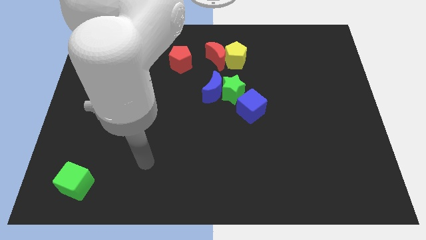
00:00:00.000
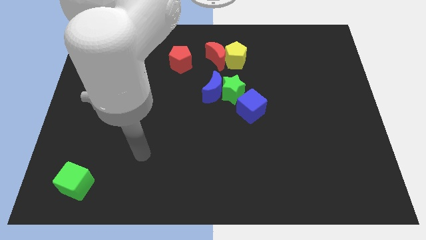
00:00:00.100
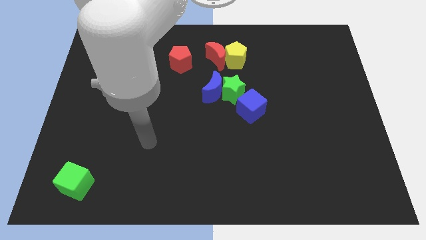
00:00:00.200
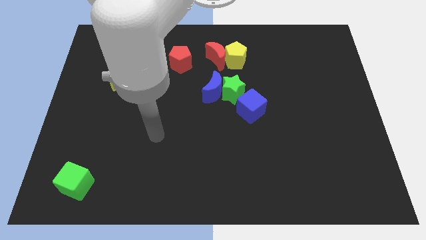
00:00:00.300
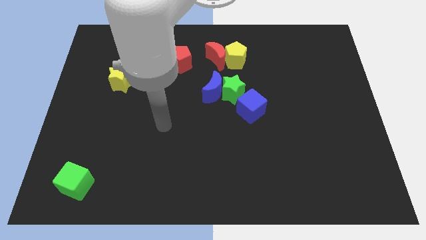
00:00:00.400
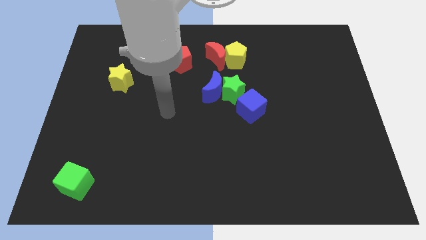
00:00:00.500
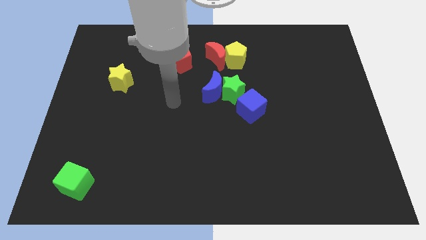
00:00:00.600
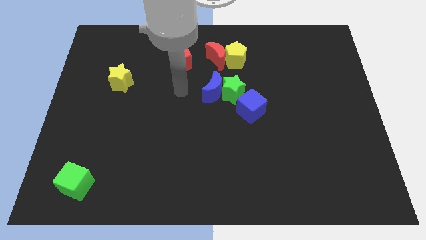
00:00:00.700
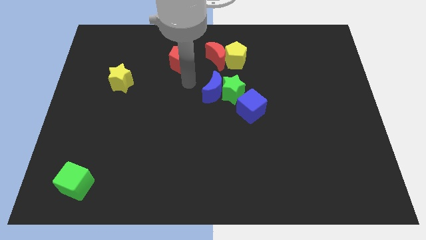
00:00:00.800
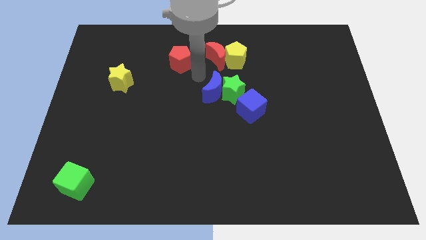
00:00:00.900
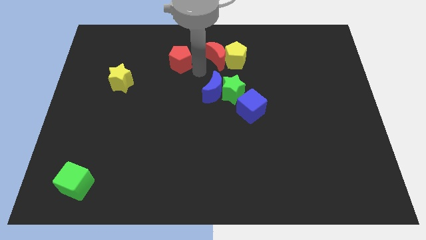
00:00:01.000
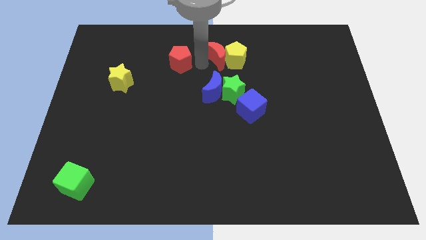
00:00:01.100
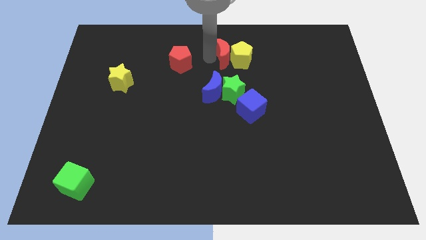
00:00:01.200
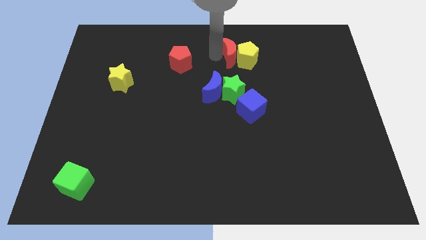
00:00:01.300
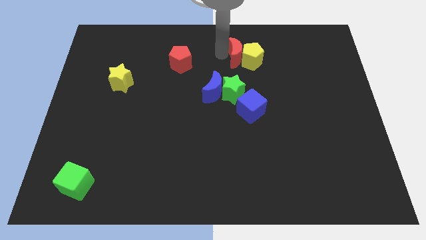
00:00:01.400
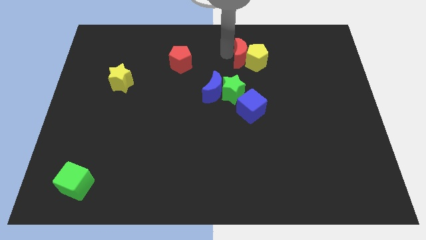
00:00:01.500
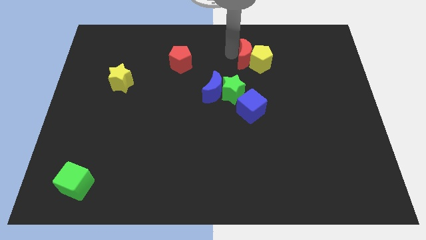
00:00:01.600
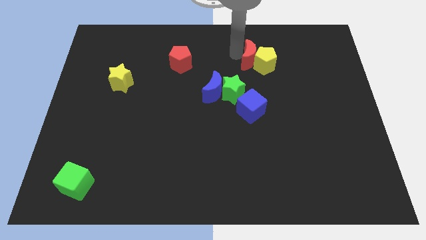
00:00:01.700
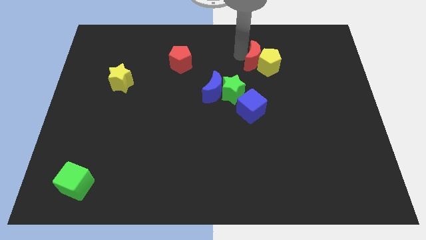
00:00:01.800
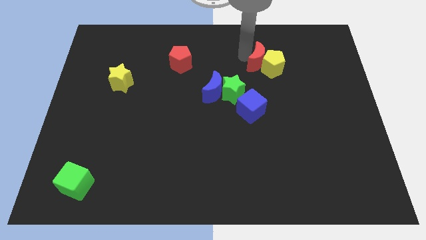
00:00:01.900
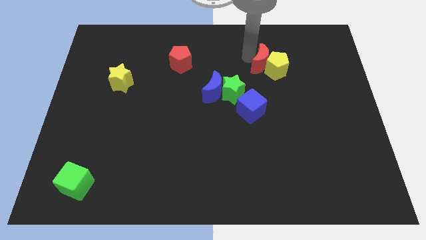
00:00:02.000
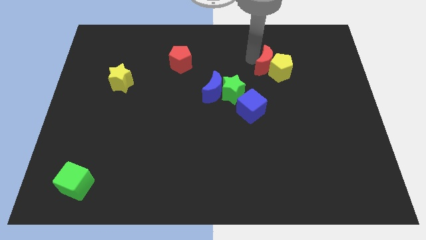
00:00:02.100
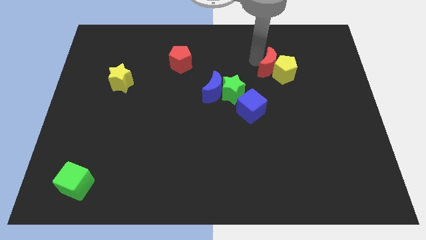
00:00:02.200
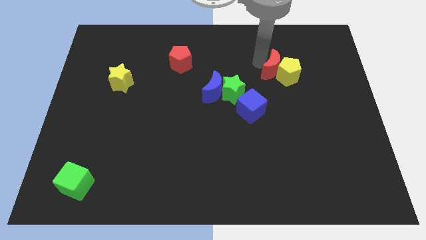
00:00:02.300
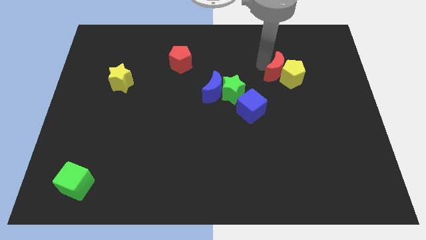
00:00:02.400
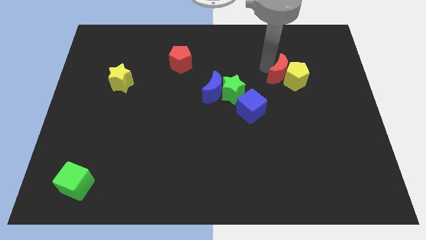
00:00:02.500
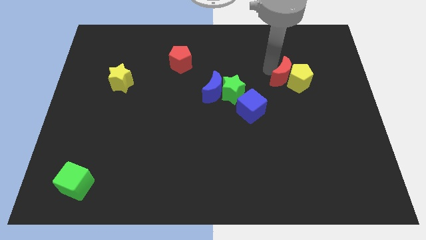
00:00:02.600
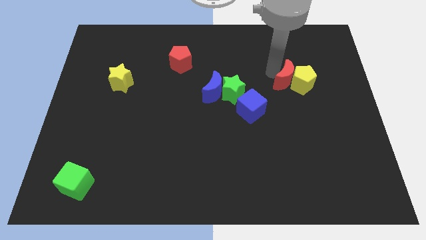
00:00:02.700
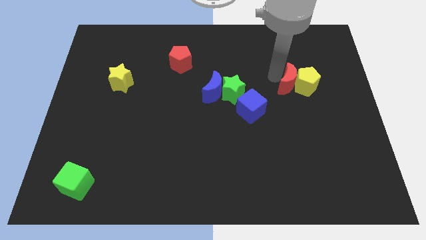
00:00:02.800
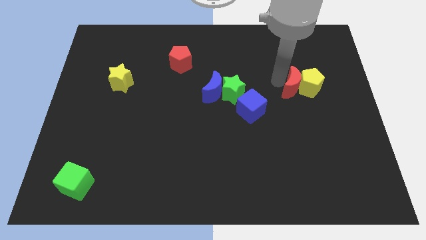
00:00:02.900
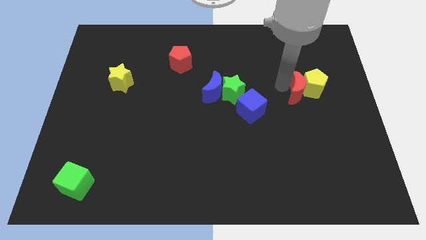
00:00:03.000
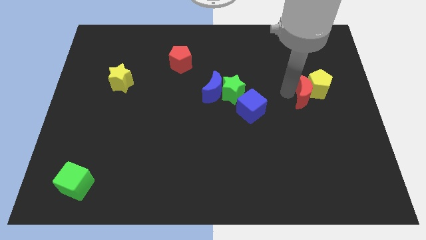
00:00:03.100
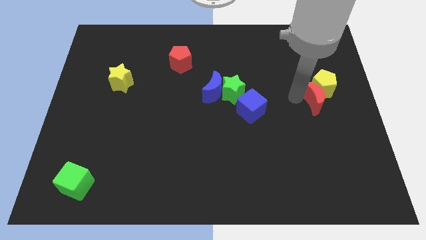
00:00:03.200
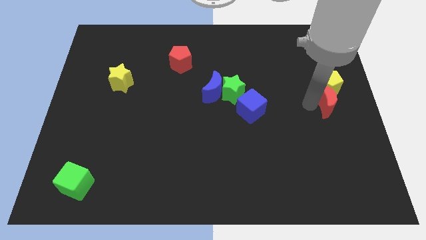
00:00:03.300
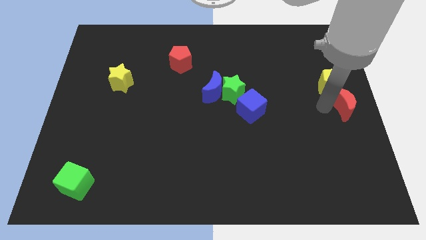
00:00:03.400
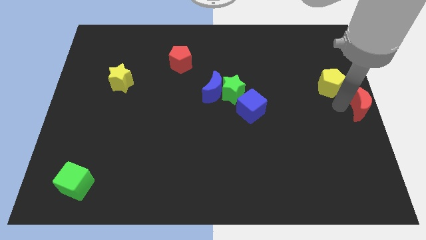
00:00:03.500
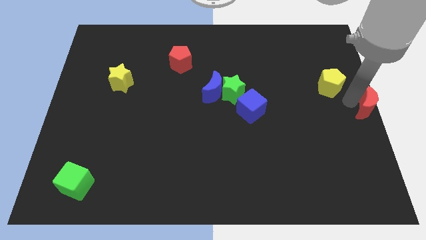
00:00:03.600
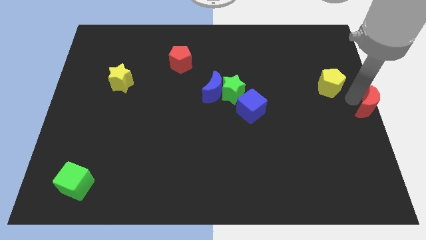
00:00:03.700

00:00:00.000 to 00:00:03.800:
move the yellow pentagon away from the red moon

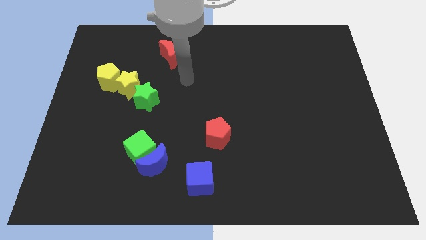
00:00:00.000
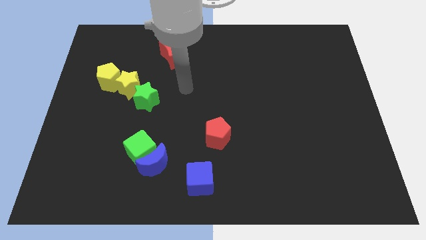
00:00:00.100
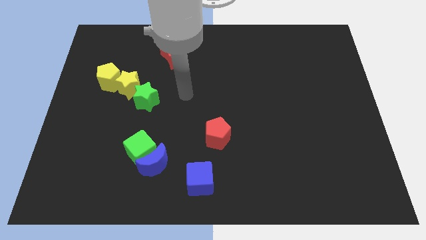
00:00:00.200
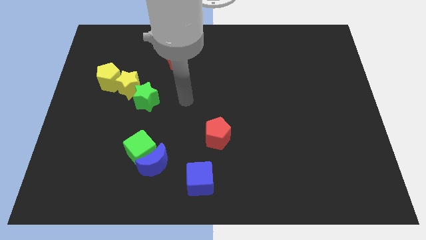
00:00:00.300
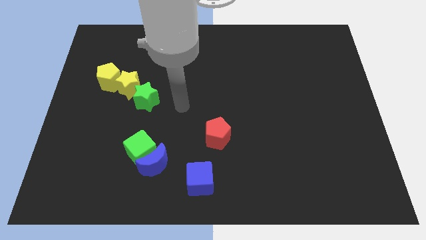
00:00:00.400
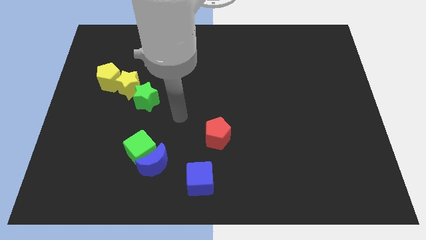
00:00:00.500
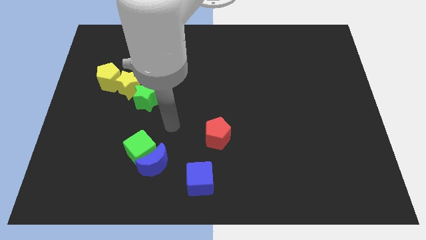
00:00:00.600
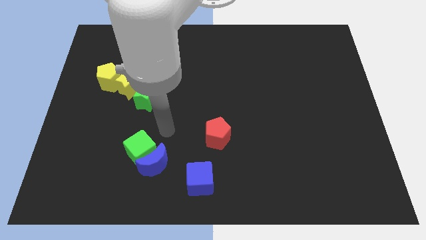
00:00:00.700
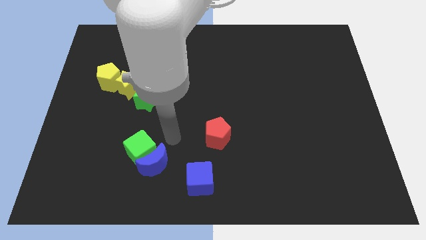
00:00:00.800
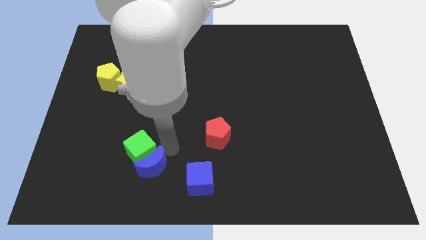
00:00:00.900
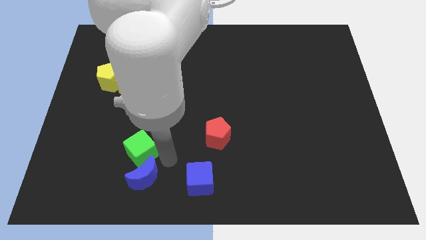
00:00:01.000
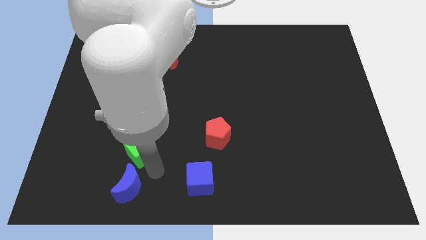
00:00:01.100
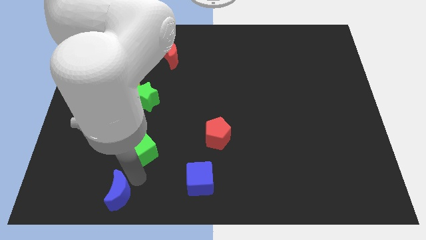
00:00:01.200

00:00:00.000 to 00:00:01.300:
move the green cube away from the blue moon

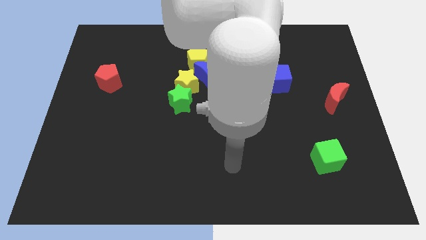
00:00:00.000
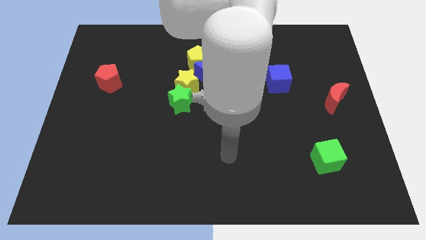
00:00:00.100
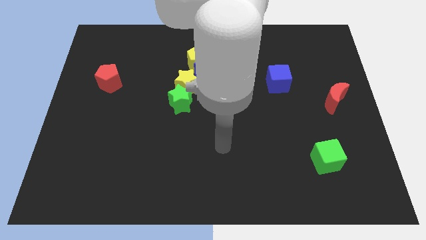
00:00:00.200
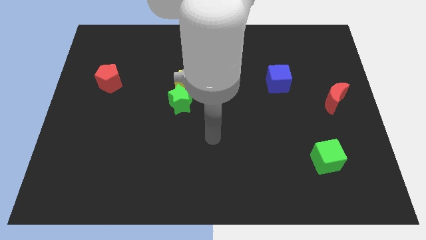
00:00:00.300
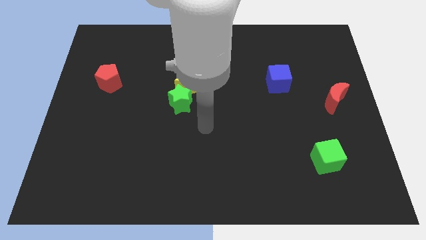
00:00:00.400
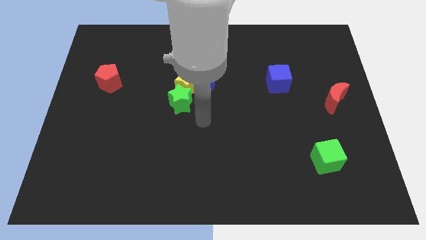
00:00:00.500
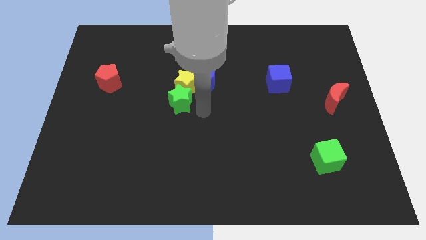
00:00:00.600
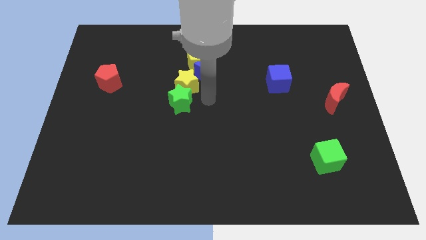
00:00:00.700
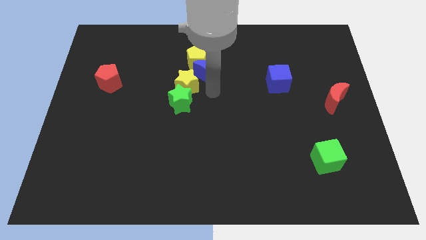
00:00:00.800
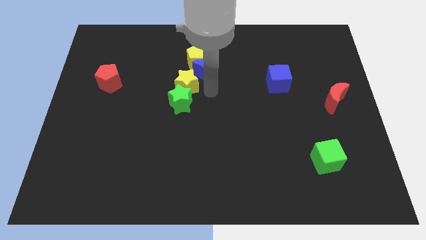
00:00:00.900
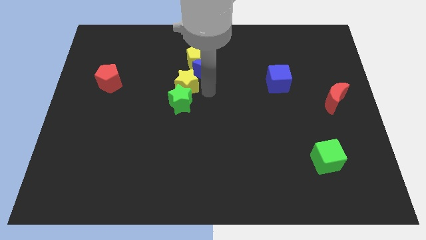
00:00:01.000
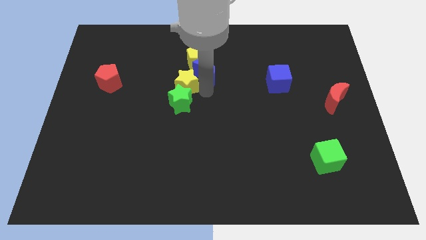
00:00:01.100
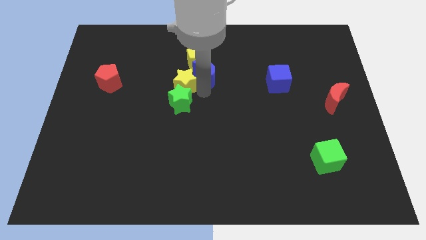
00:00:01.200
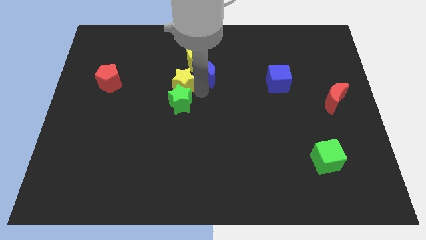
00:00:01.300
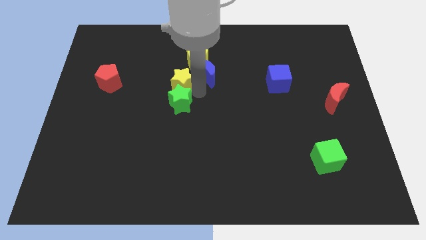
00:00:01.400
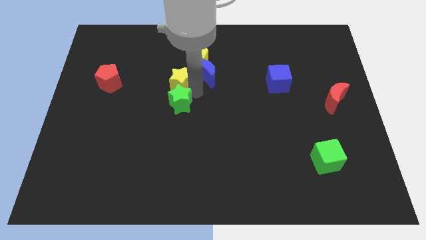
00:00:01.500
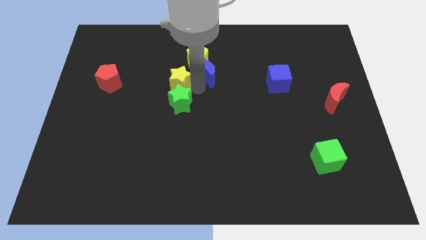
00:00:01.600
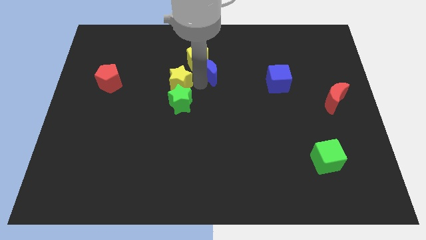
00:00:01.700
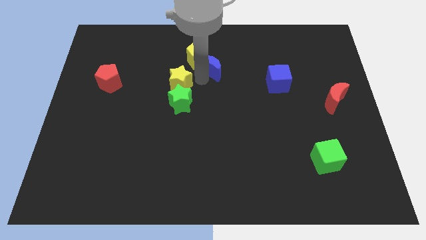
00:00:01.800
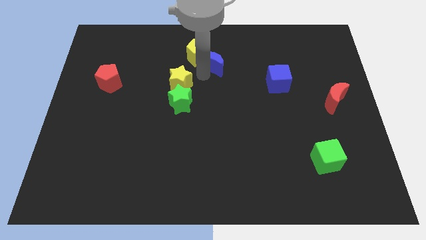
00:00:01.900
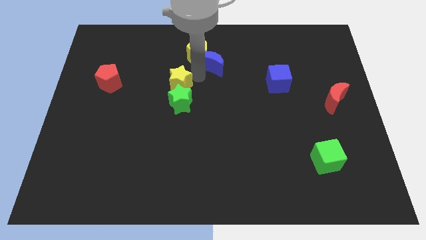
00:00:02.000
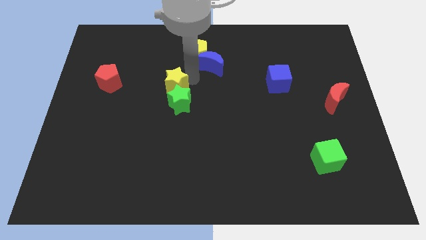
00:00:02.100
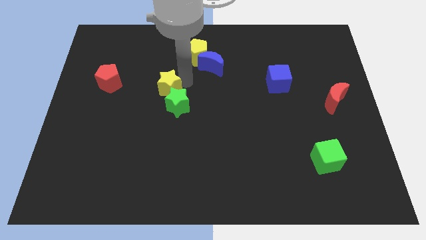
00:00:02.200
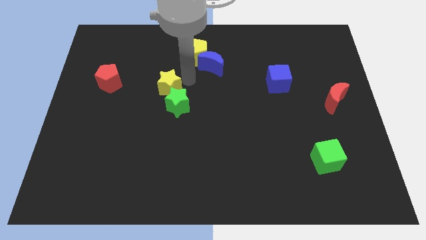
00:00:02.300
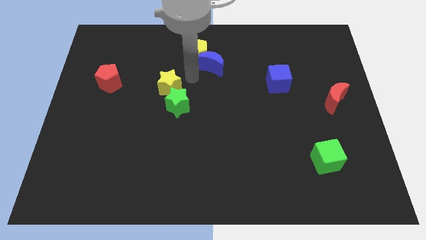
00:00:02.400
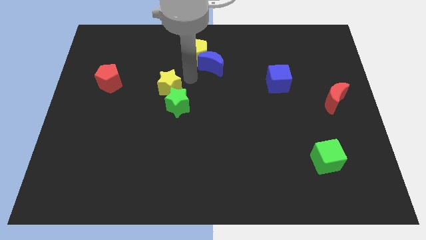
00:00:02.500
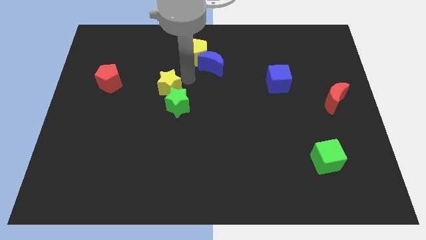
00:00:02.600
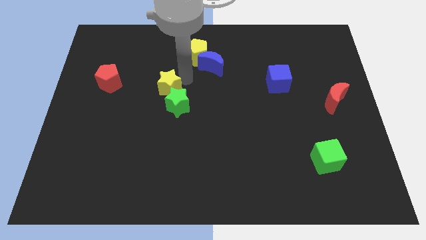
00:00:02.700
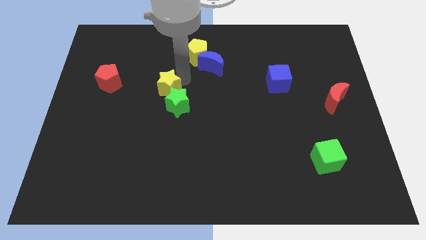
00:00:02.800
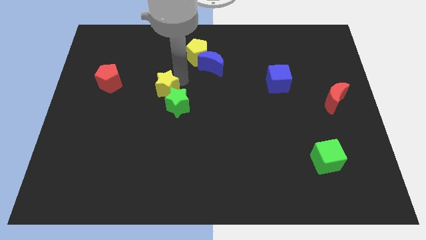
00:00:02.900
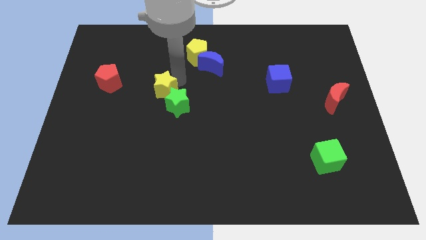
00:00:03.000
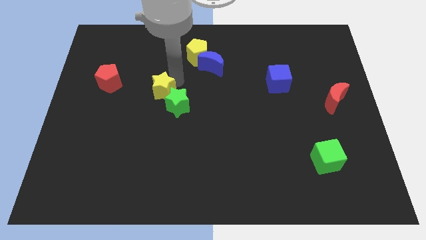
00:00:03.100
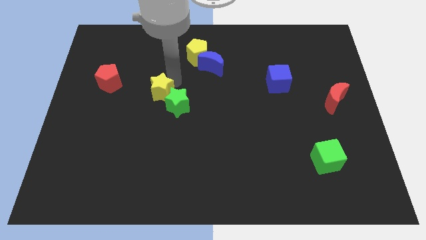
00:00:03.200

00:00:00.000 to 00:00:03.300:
pull the yellow star apart from the green star, blue moon, and yellow pentagon

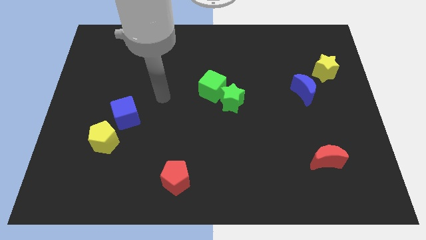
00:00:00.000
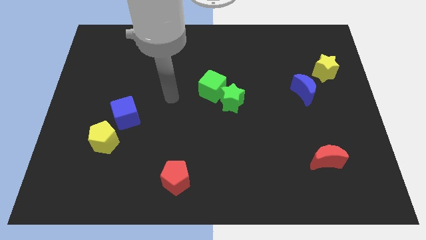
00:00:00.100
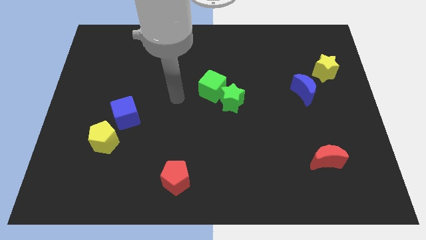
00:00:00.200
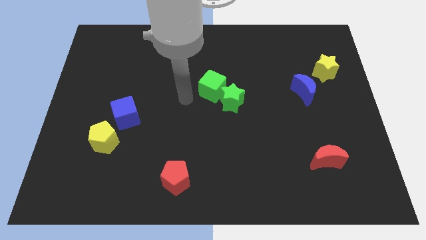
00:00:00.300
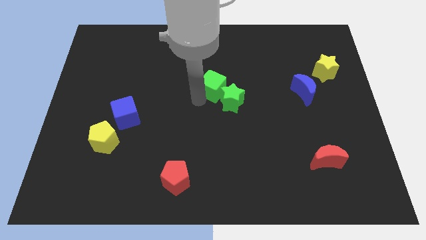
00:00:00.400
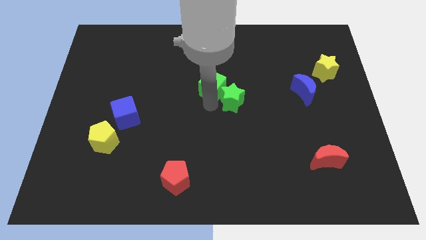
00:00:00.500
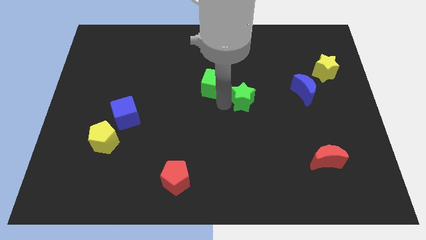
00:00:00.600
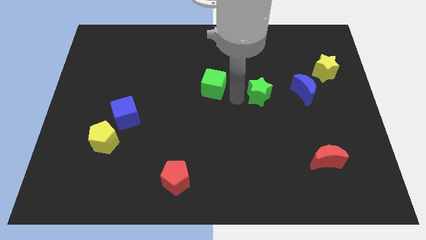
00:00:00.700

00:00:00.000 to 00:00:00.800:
pull the green cube apart from the green star
